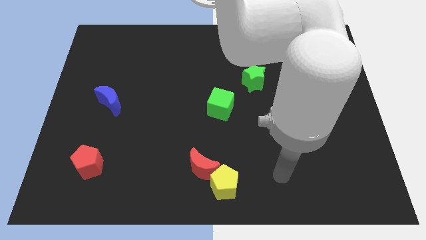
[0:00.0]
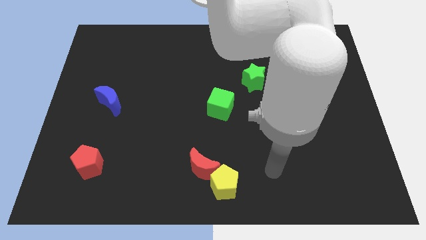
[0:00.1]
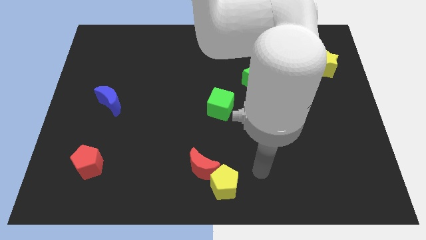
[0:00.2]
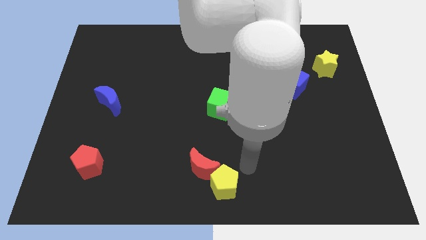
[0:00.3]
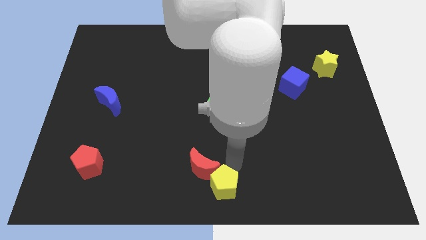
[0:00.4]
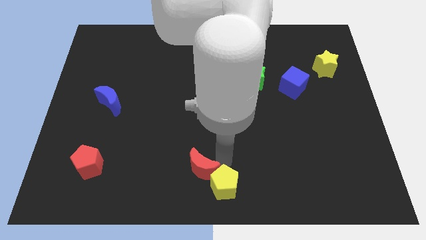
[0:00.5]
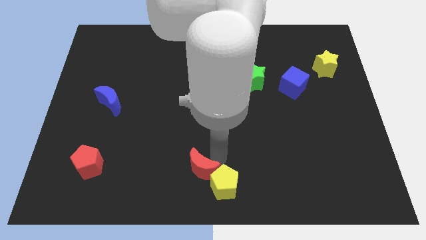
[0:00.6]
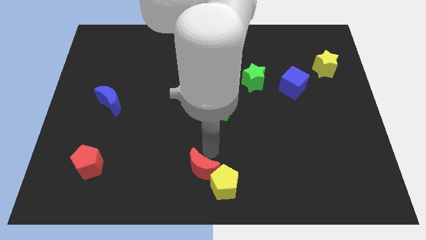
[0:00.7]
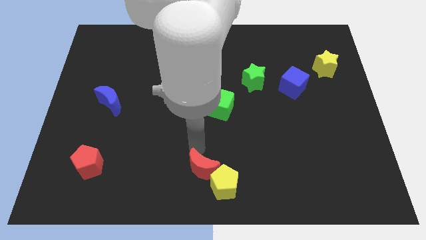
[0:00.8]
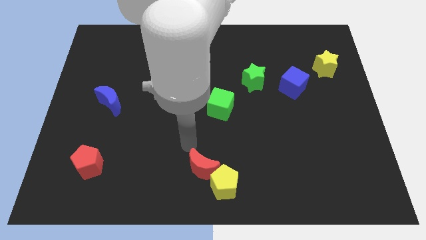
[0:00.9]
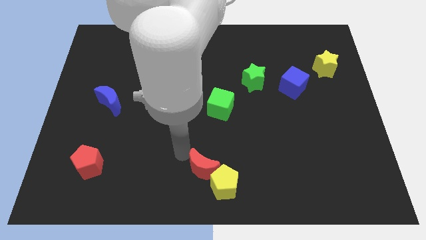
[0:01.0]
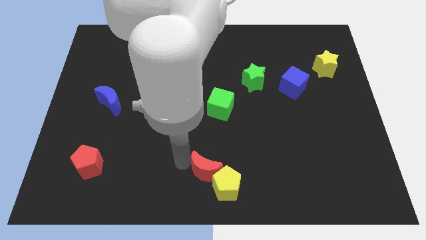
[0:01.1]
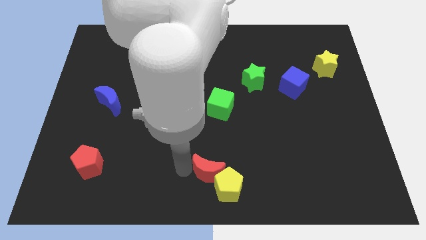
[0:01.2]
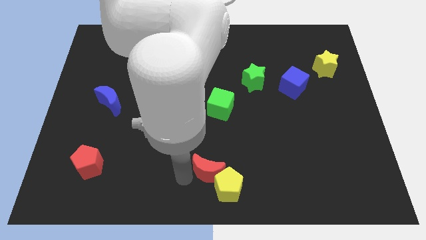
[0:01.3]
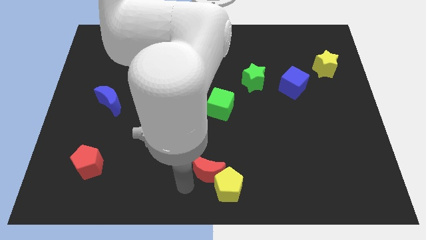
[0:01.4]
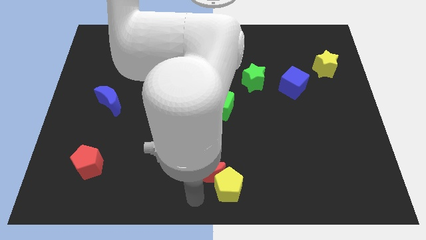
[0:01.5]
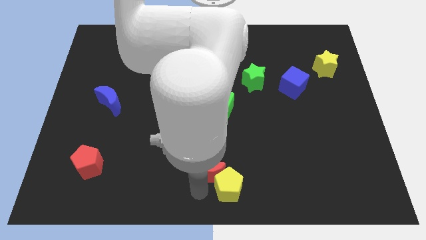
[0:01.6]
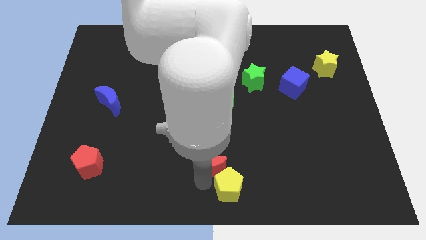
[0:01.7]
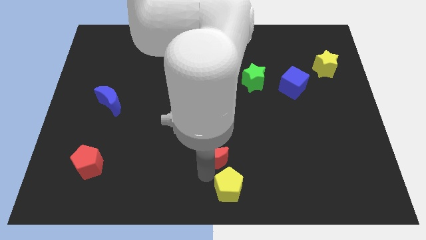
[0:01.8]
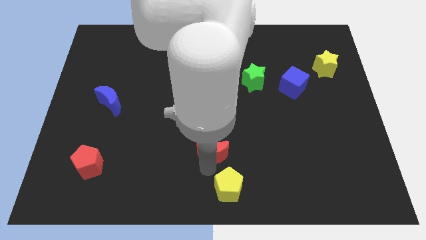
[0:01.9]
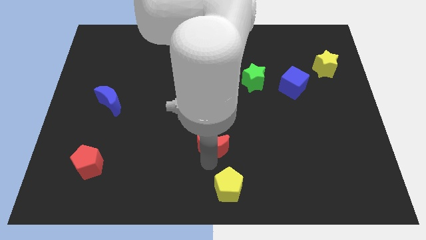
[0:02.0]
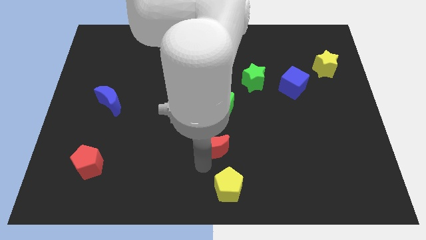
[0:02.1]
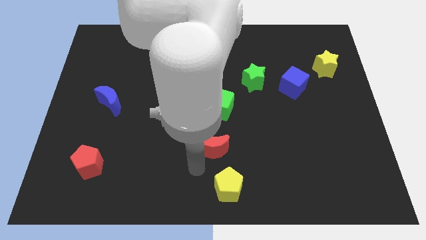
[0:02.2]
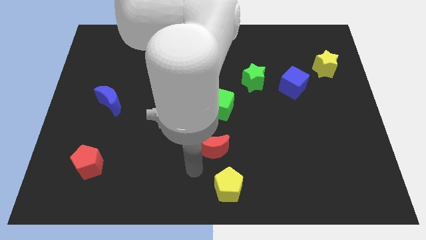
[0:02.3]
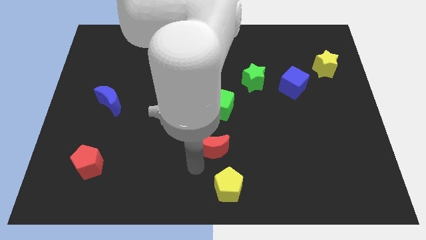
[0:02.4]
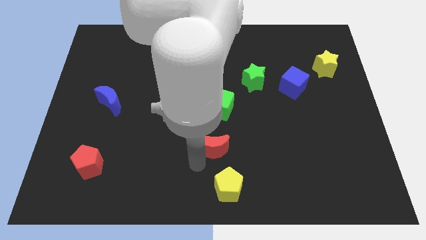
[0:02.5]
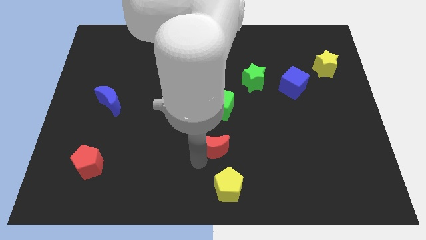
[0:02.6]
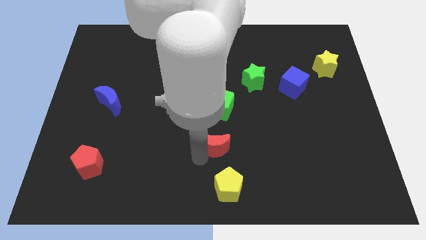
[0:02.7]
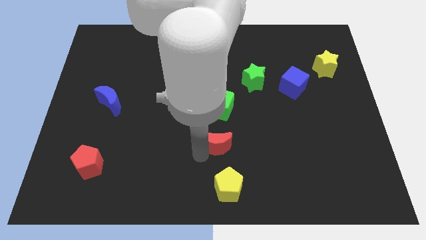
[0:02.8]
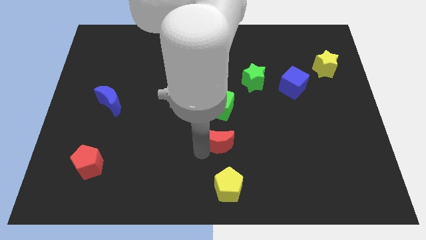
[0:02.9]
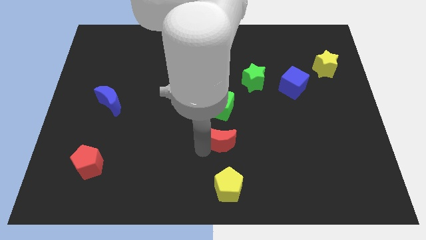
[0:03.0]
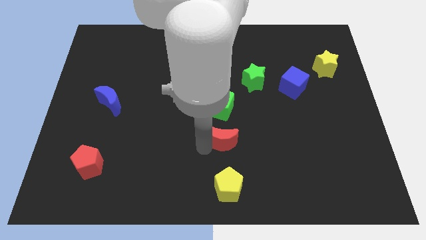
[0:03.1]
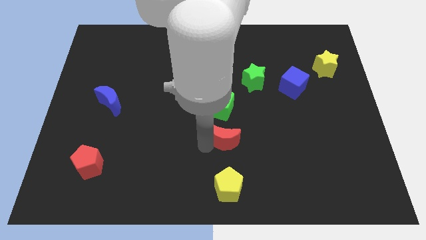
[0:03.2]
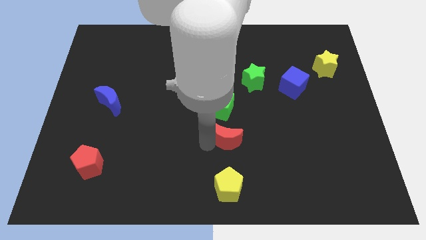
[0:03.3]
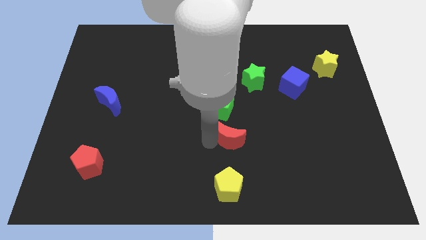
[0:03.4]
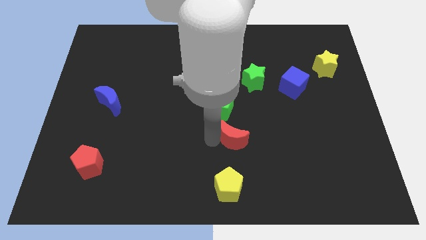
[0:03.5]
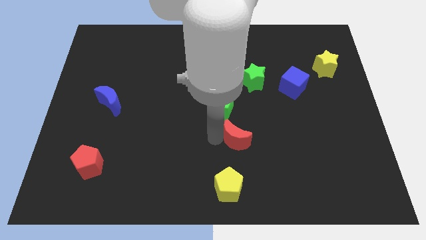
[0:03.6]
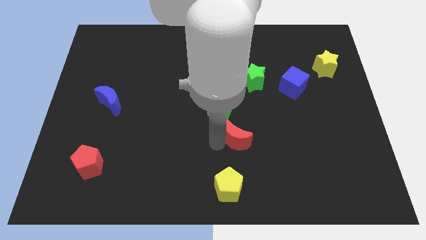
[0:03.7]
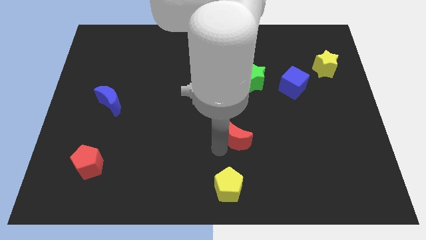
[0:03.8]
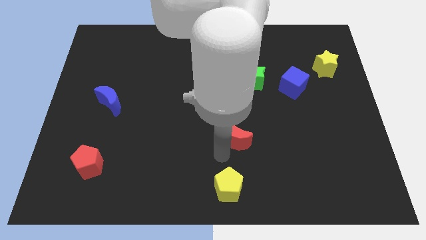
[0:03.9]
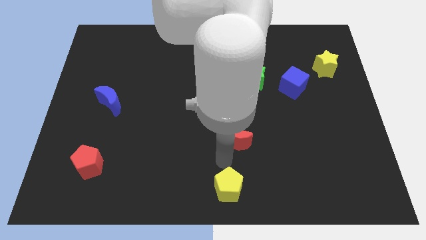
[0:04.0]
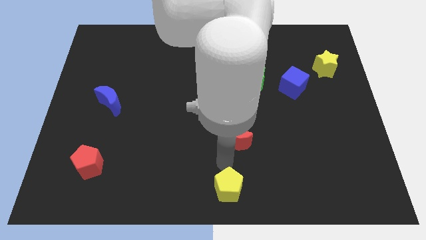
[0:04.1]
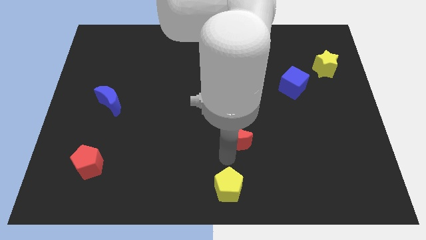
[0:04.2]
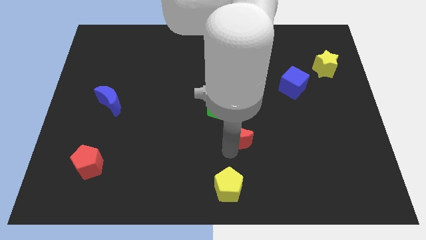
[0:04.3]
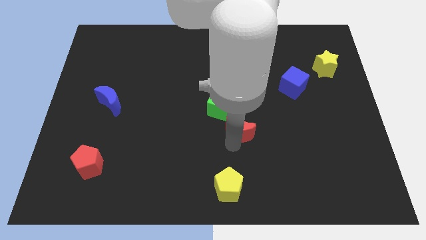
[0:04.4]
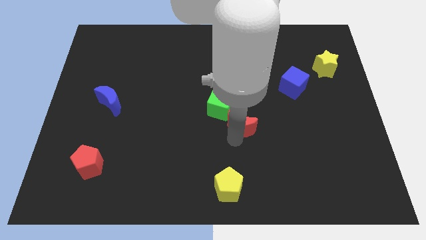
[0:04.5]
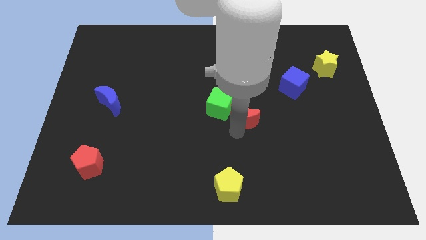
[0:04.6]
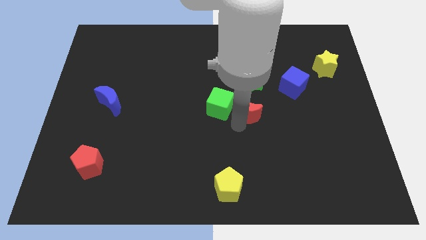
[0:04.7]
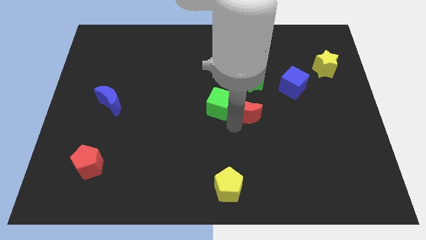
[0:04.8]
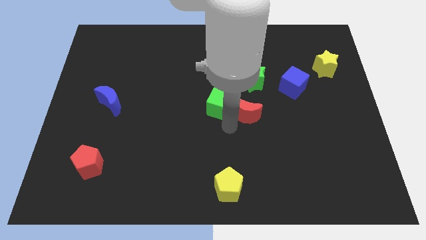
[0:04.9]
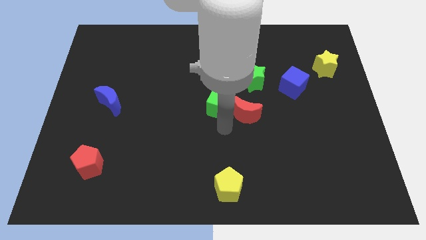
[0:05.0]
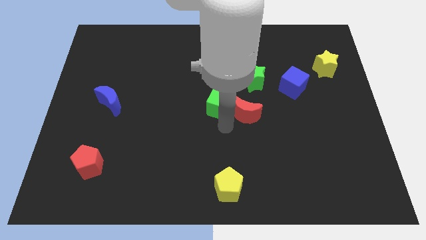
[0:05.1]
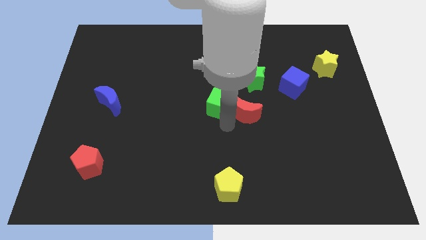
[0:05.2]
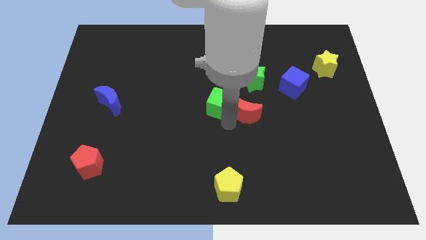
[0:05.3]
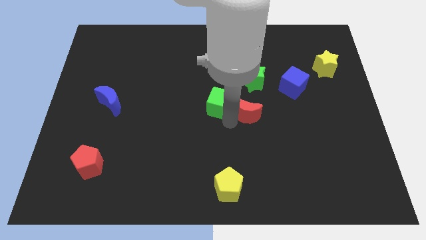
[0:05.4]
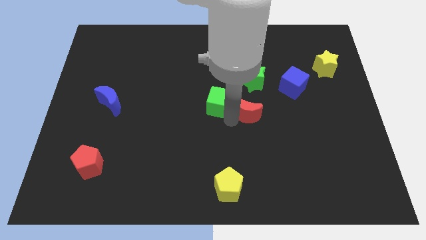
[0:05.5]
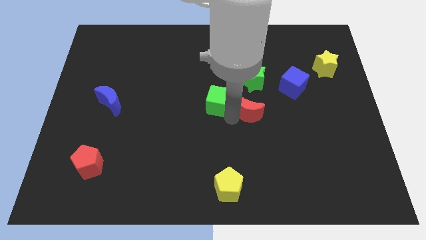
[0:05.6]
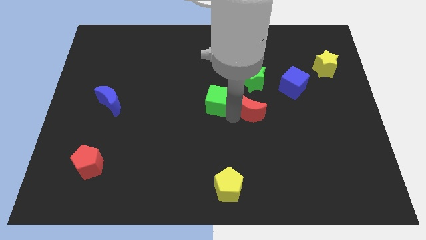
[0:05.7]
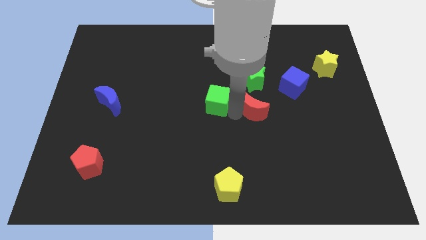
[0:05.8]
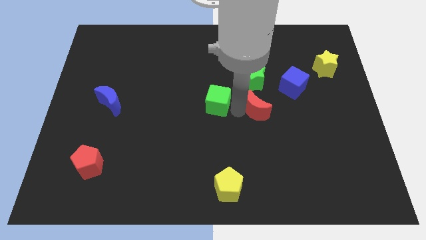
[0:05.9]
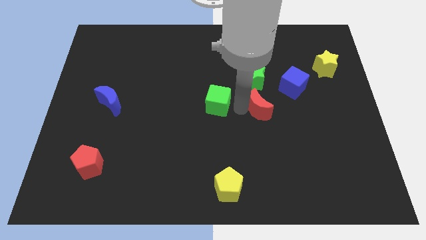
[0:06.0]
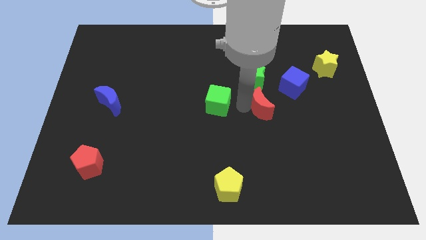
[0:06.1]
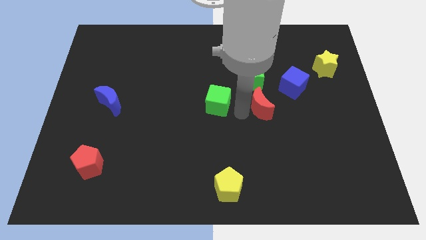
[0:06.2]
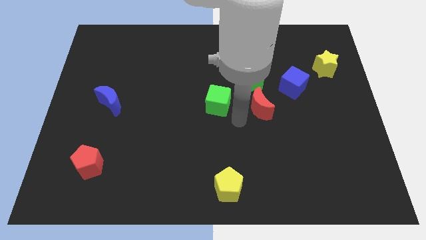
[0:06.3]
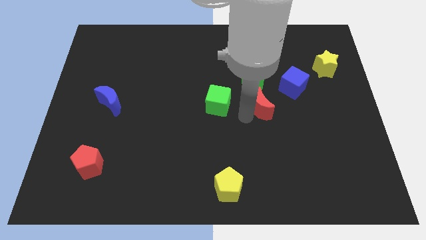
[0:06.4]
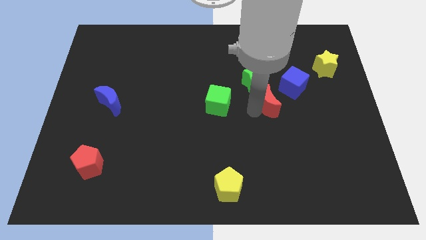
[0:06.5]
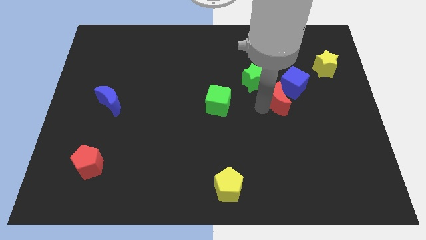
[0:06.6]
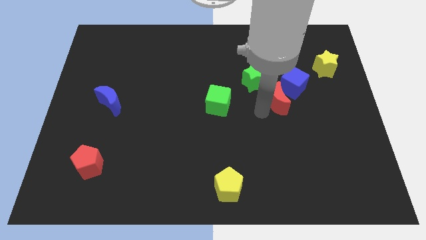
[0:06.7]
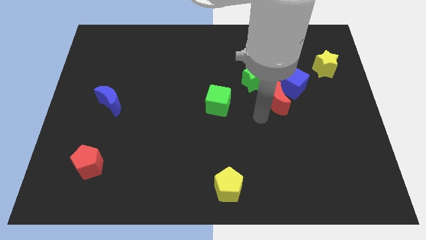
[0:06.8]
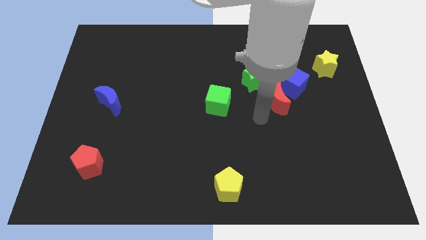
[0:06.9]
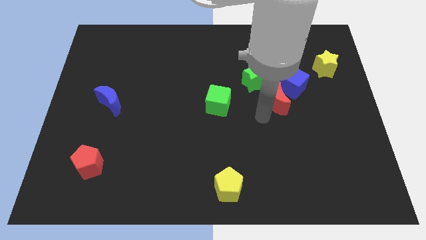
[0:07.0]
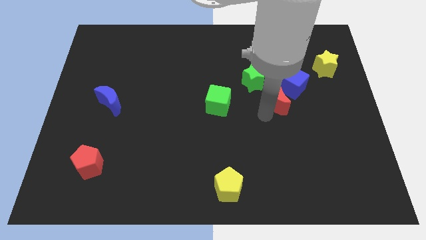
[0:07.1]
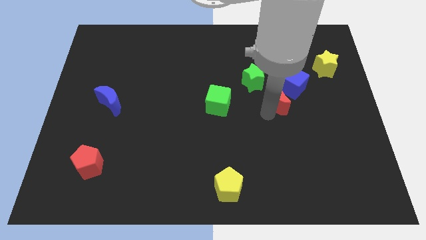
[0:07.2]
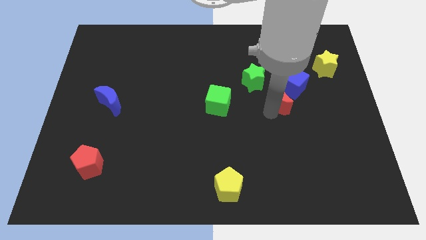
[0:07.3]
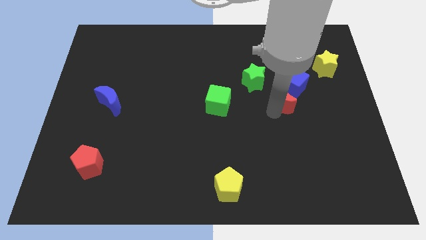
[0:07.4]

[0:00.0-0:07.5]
push the red moon next to the blue cube

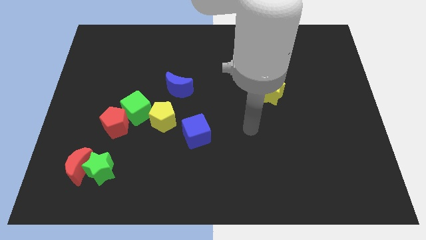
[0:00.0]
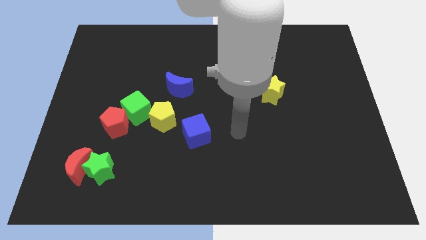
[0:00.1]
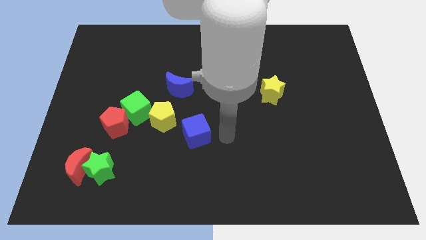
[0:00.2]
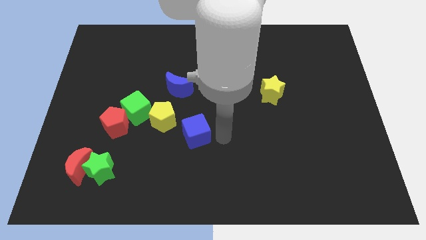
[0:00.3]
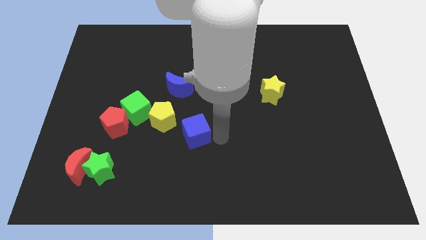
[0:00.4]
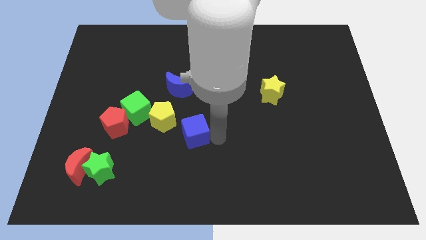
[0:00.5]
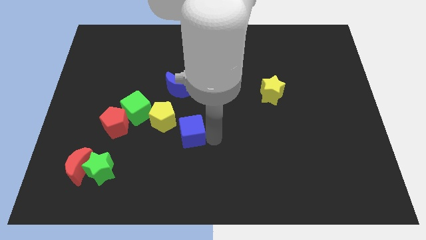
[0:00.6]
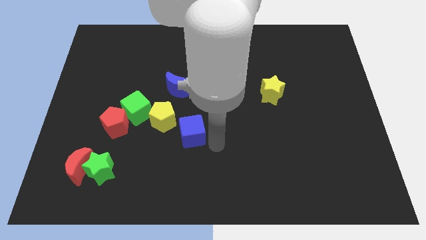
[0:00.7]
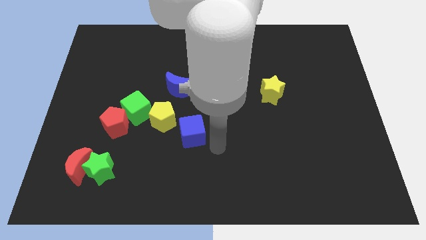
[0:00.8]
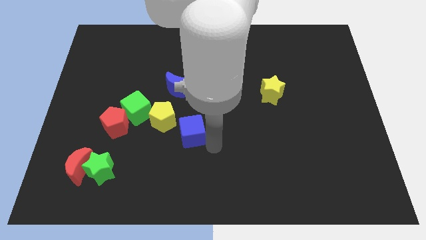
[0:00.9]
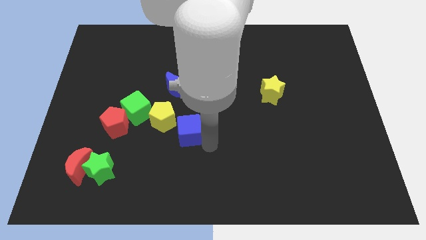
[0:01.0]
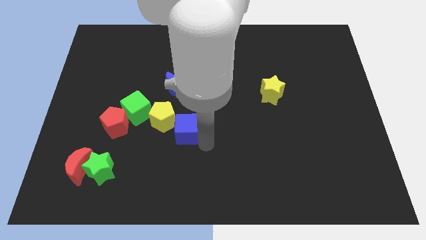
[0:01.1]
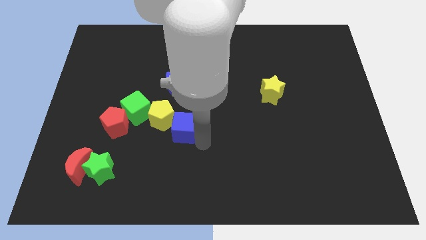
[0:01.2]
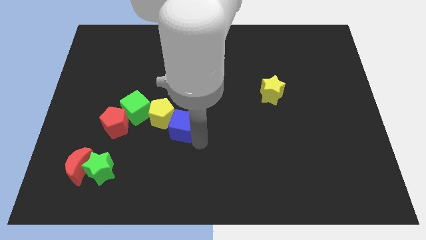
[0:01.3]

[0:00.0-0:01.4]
slide the blue cube next to the yellow pentagon
